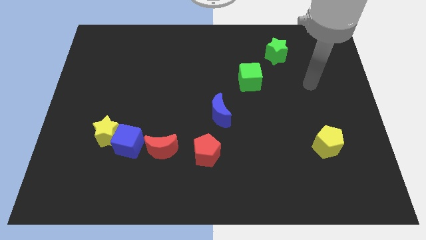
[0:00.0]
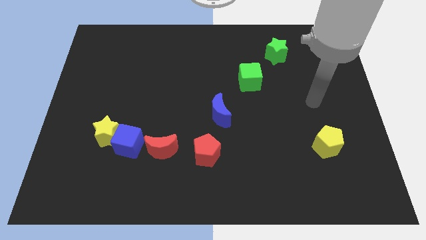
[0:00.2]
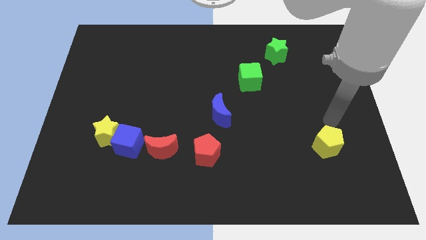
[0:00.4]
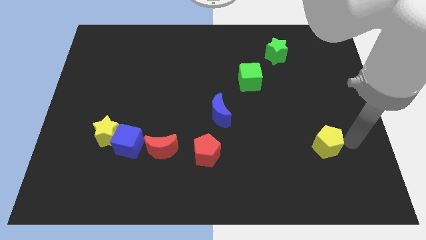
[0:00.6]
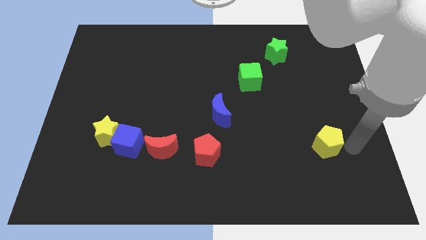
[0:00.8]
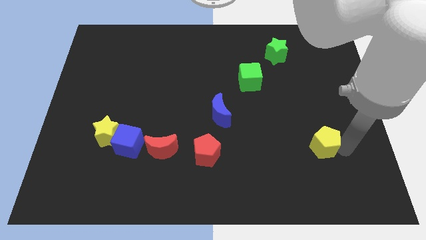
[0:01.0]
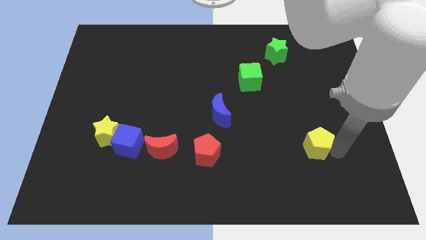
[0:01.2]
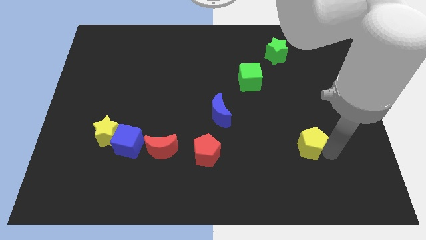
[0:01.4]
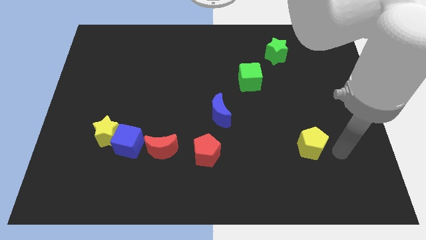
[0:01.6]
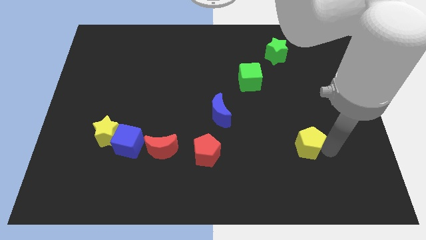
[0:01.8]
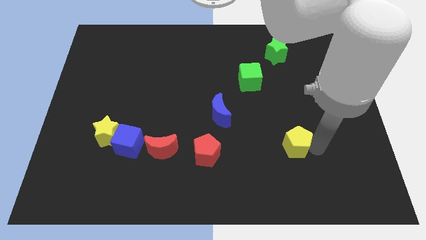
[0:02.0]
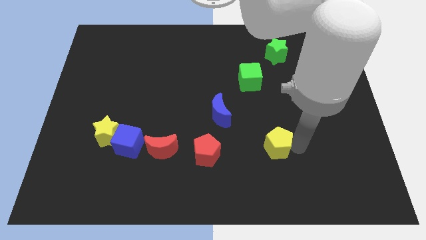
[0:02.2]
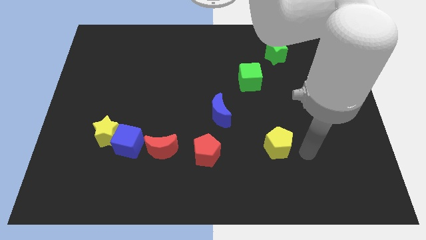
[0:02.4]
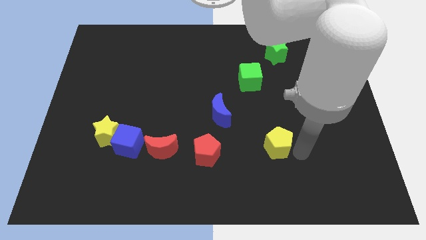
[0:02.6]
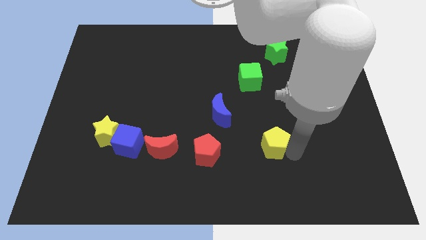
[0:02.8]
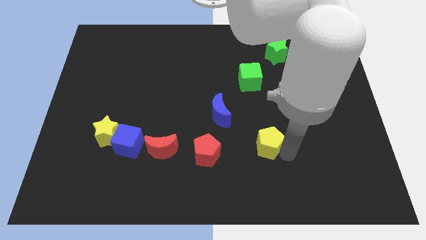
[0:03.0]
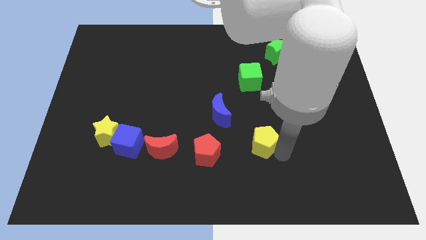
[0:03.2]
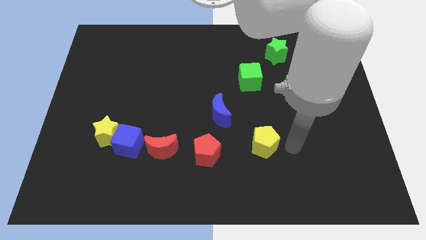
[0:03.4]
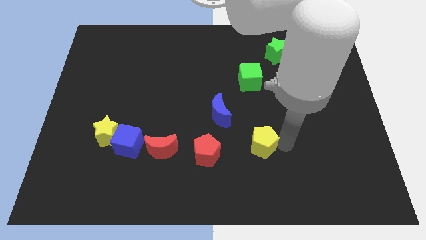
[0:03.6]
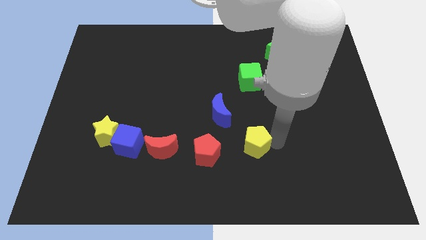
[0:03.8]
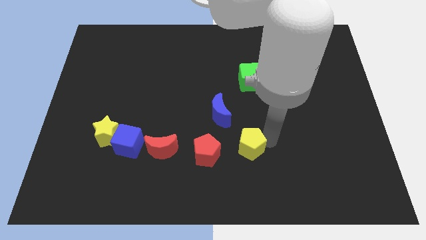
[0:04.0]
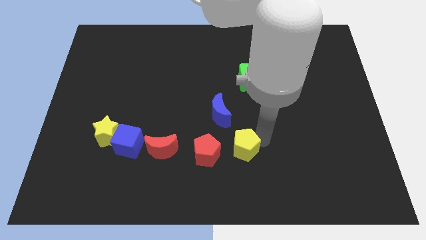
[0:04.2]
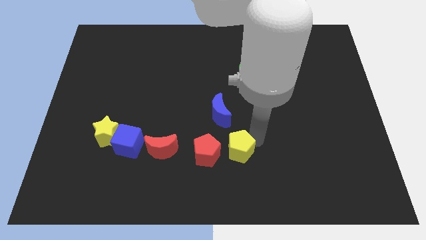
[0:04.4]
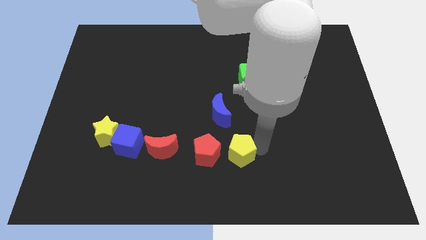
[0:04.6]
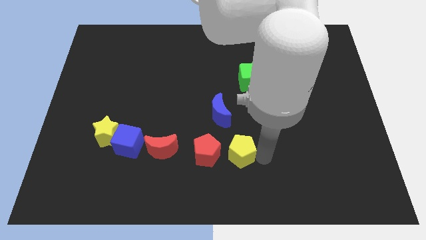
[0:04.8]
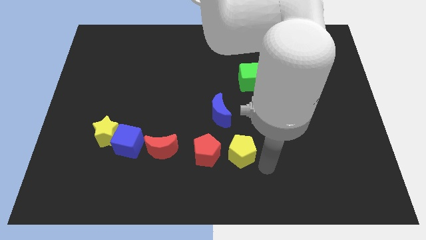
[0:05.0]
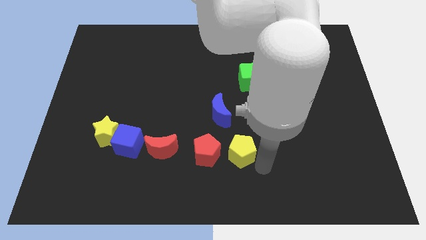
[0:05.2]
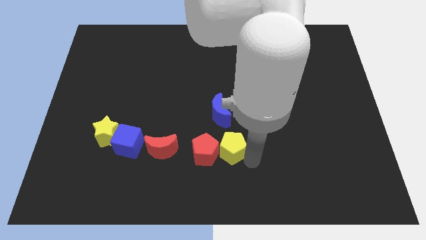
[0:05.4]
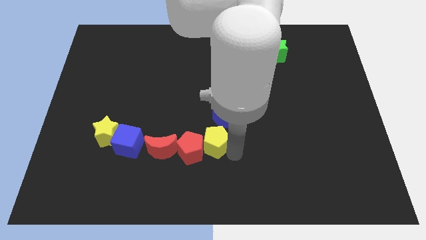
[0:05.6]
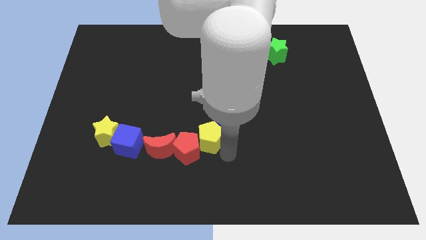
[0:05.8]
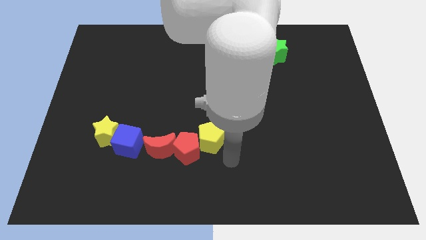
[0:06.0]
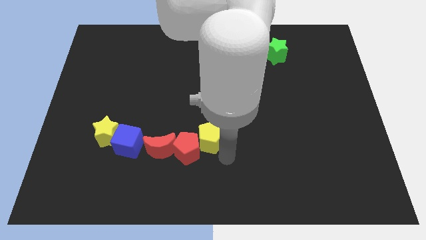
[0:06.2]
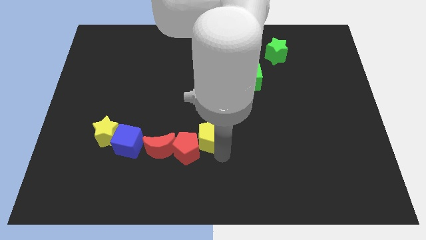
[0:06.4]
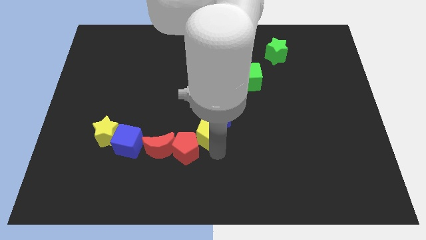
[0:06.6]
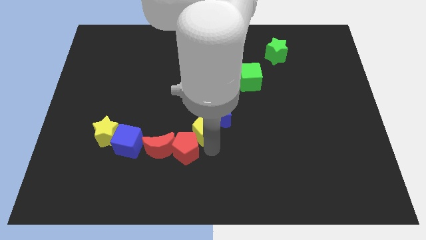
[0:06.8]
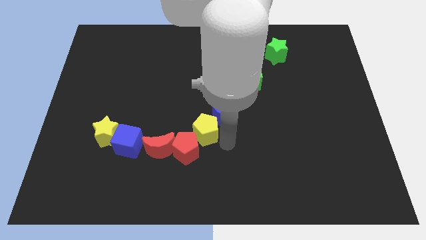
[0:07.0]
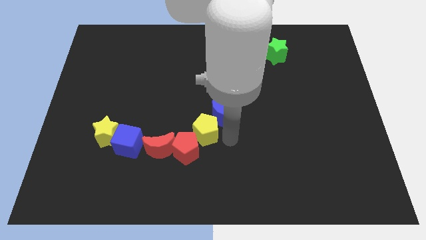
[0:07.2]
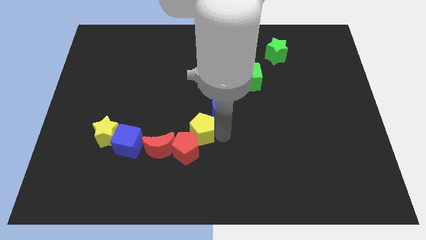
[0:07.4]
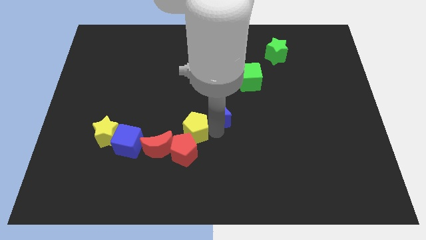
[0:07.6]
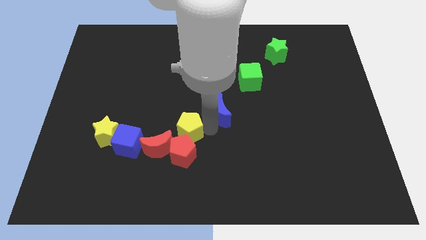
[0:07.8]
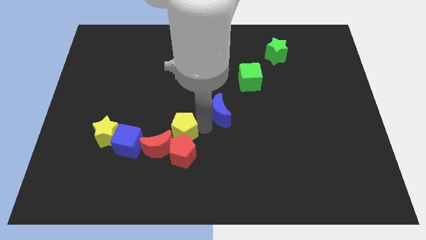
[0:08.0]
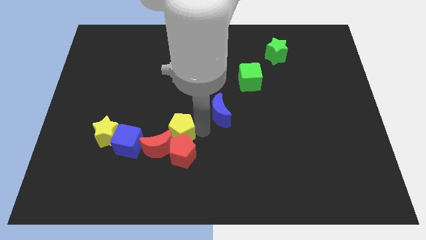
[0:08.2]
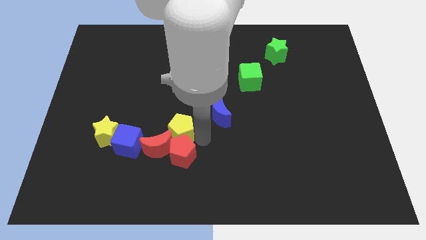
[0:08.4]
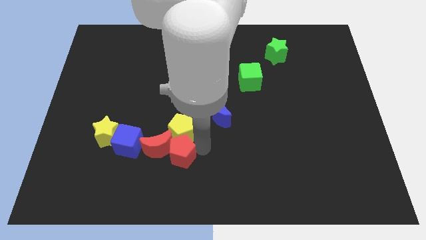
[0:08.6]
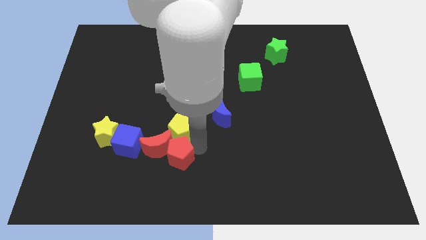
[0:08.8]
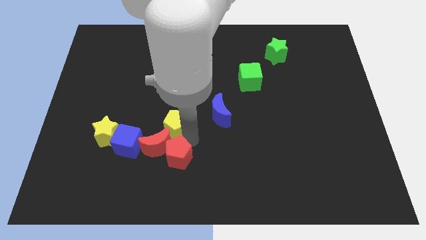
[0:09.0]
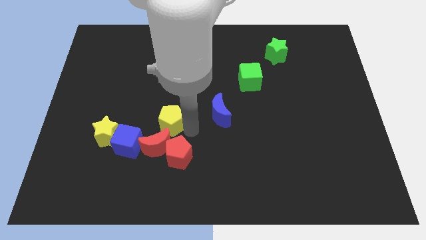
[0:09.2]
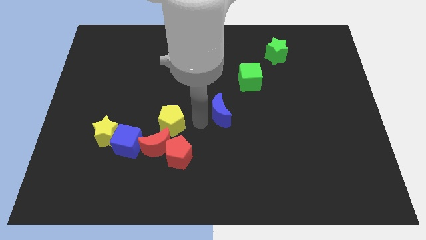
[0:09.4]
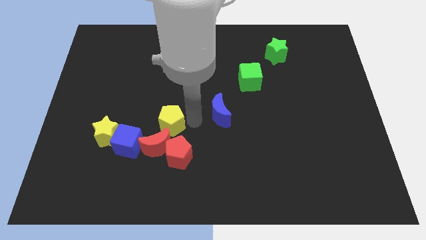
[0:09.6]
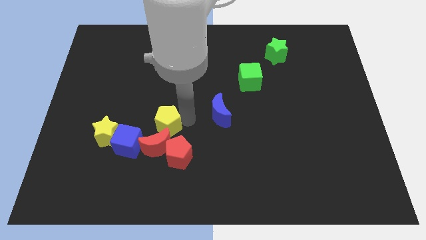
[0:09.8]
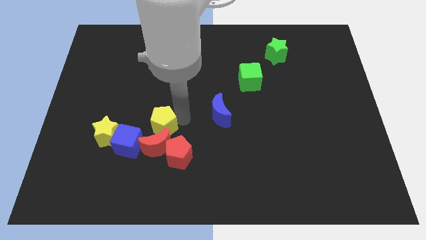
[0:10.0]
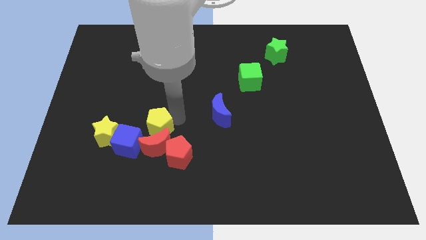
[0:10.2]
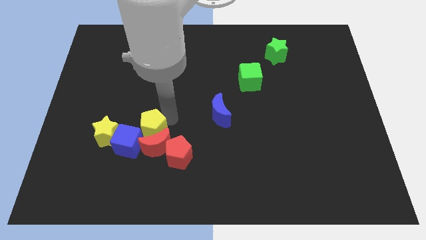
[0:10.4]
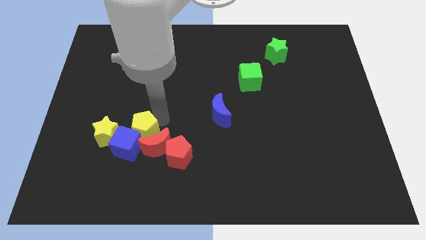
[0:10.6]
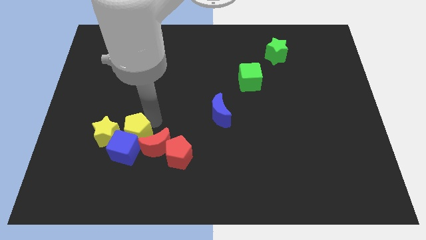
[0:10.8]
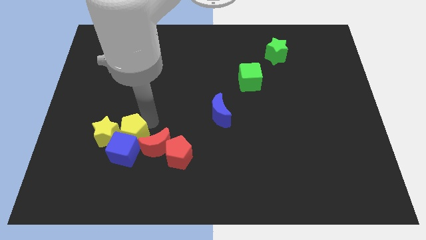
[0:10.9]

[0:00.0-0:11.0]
slide the yellow pentagon to the yellow star
